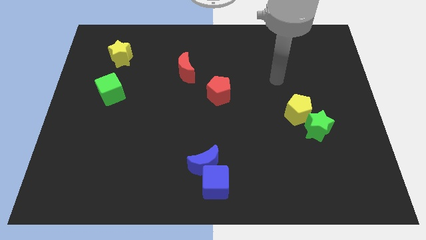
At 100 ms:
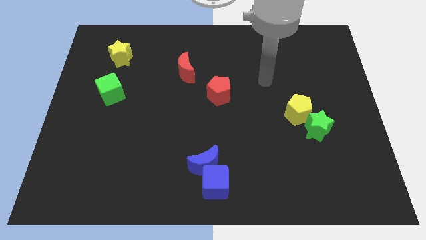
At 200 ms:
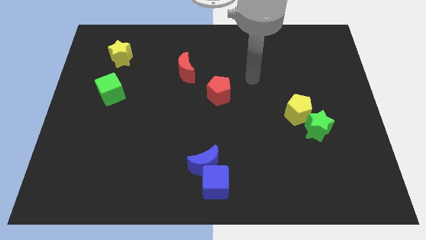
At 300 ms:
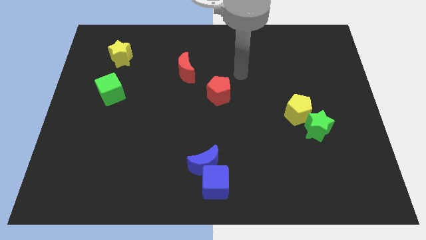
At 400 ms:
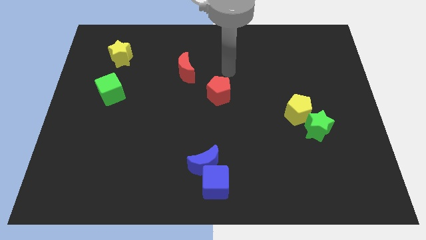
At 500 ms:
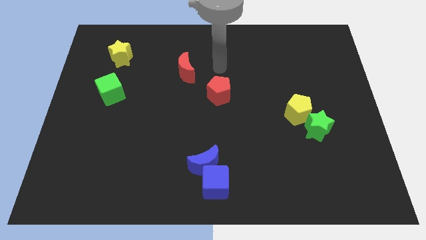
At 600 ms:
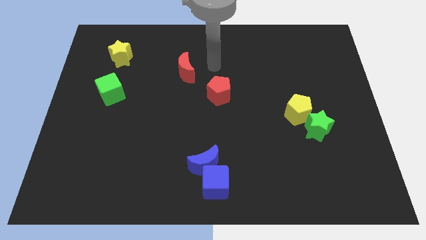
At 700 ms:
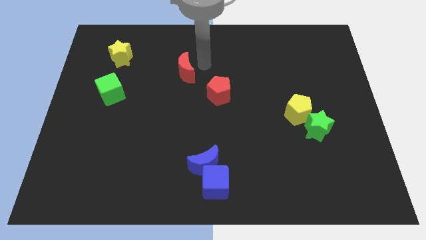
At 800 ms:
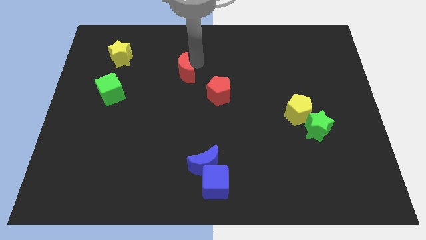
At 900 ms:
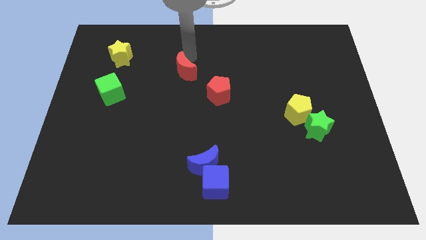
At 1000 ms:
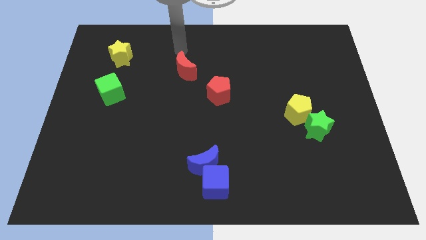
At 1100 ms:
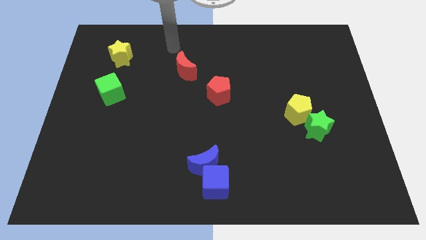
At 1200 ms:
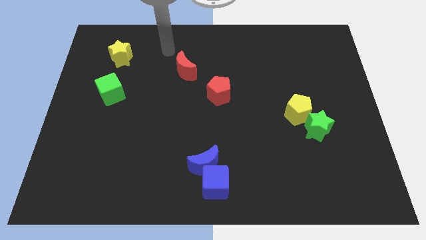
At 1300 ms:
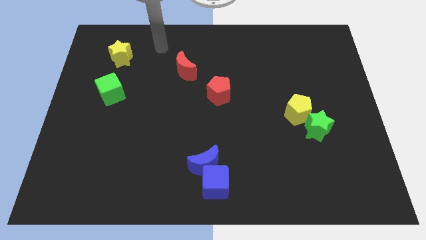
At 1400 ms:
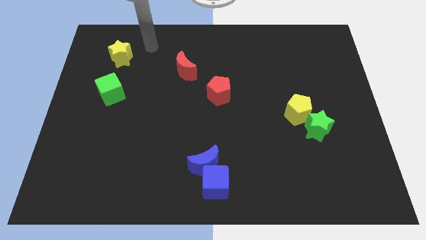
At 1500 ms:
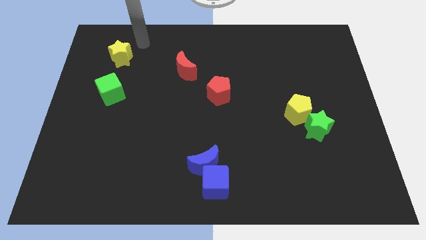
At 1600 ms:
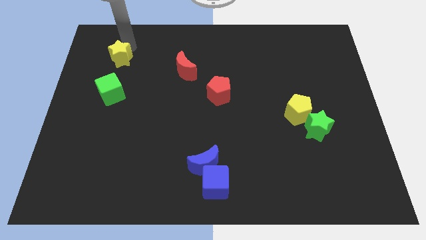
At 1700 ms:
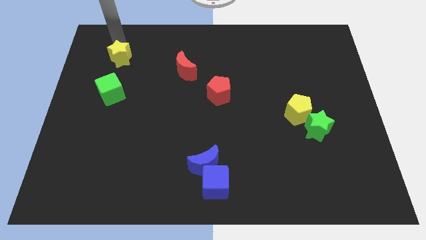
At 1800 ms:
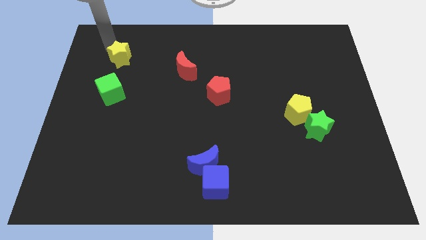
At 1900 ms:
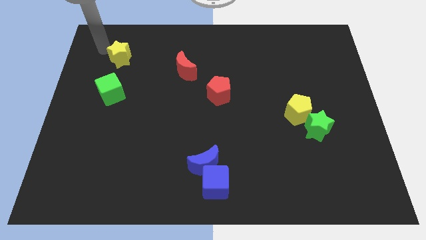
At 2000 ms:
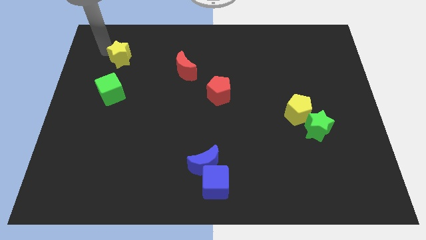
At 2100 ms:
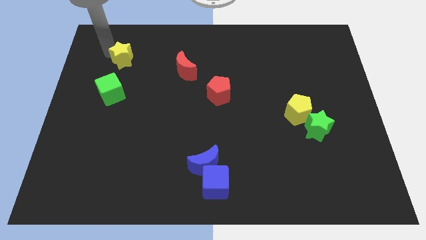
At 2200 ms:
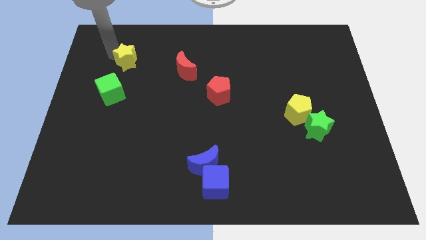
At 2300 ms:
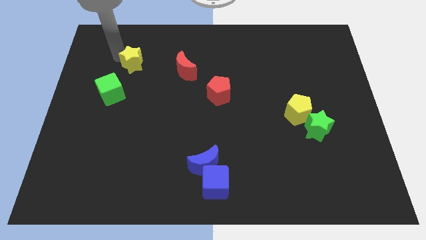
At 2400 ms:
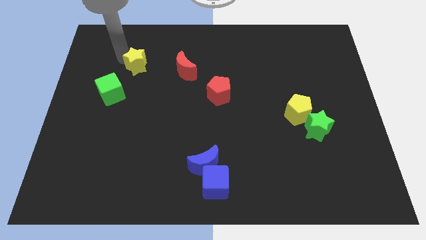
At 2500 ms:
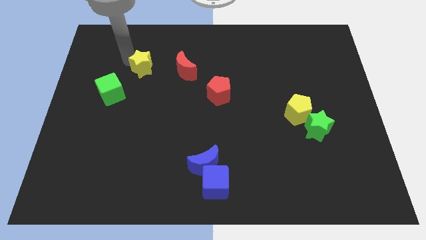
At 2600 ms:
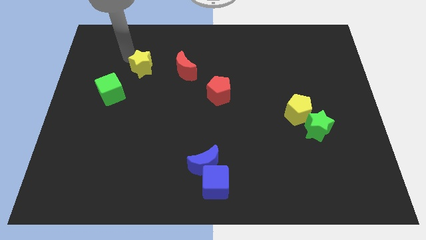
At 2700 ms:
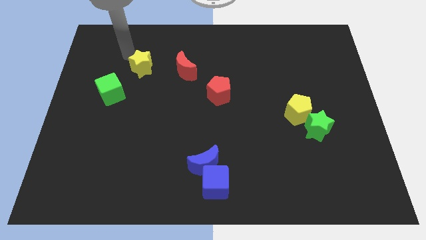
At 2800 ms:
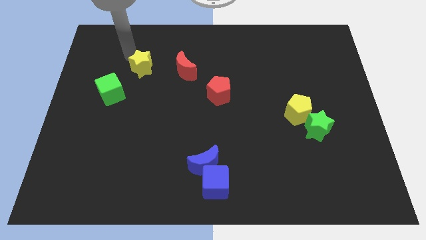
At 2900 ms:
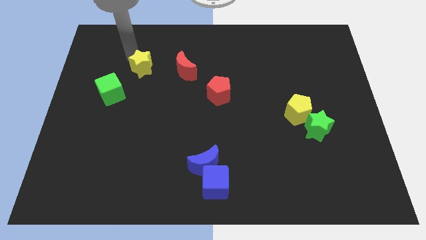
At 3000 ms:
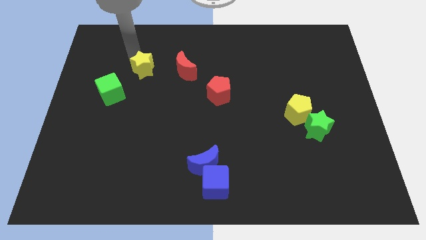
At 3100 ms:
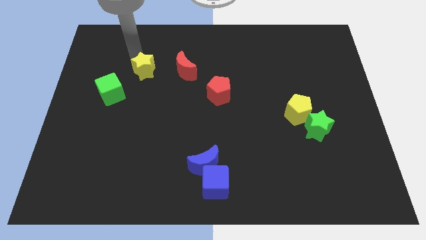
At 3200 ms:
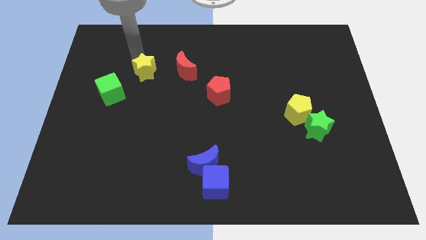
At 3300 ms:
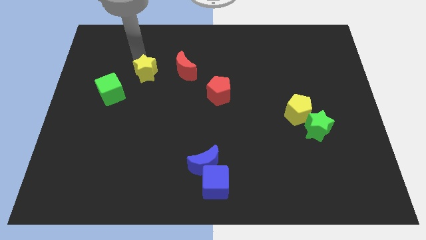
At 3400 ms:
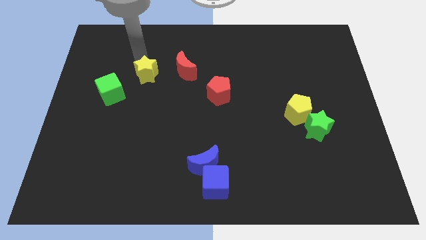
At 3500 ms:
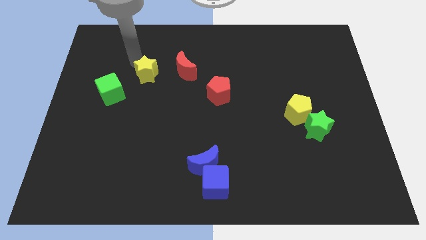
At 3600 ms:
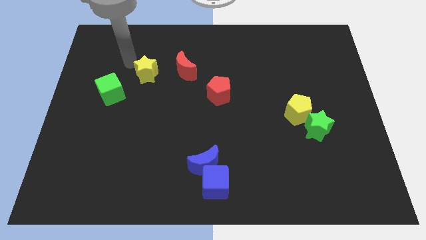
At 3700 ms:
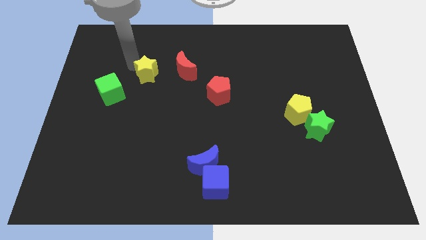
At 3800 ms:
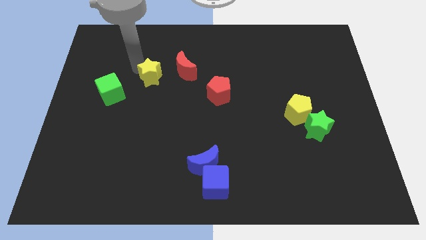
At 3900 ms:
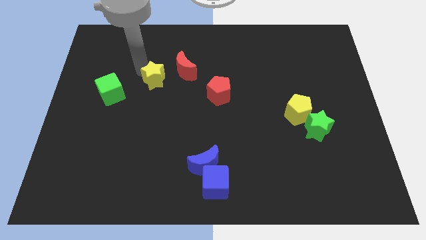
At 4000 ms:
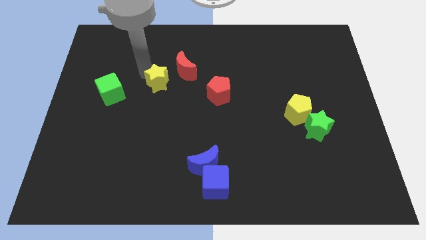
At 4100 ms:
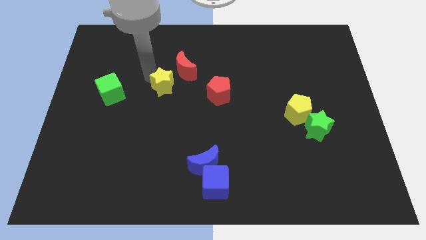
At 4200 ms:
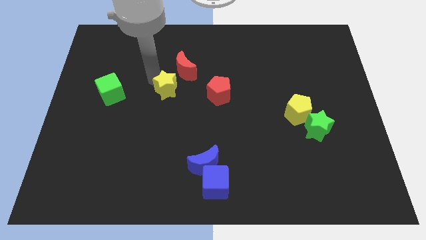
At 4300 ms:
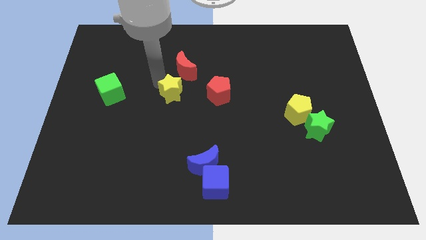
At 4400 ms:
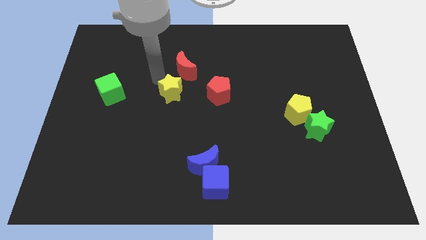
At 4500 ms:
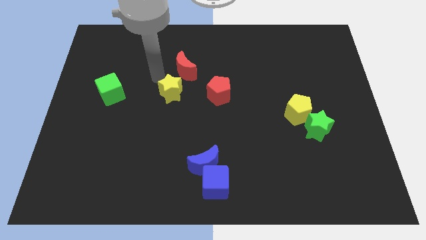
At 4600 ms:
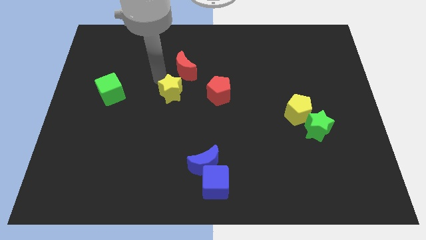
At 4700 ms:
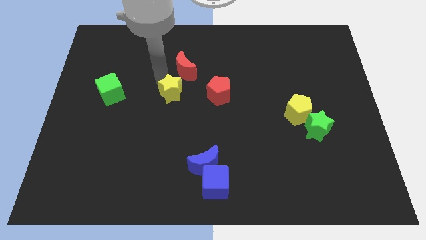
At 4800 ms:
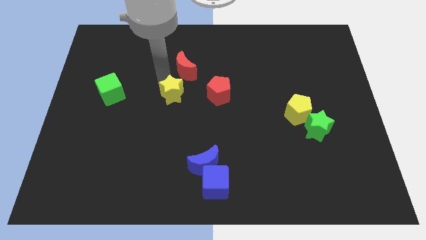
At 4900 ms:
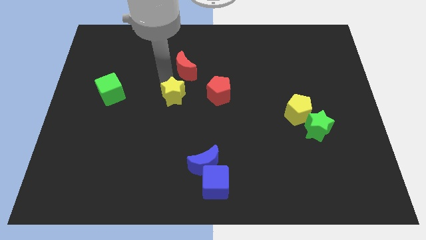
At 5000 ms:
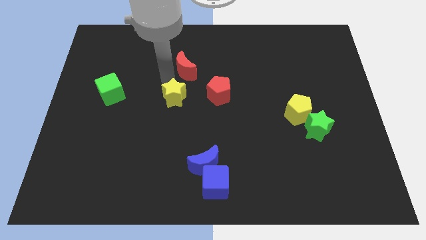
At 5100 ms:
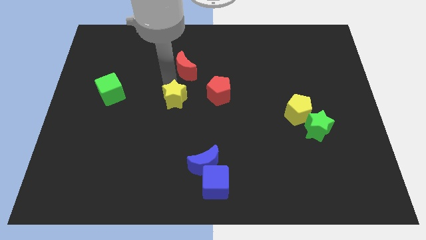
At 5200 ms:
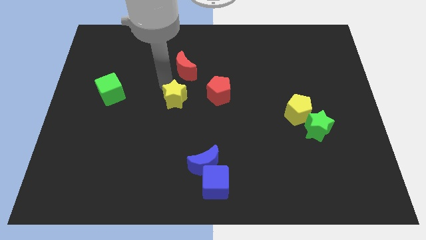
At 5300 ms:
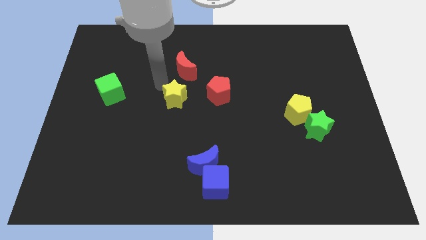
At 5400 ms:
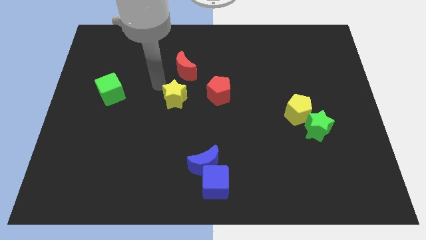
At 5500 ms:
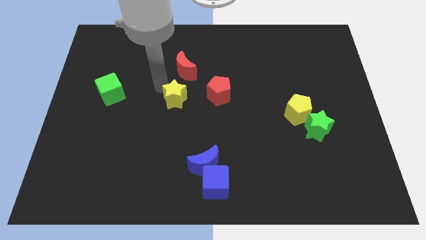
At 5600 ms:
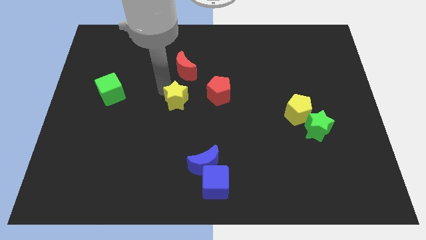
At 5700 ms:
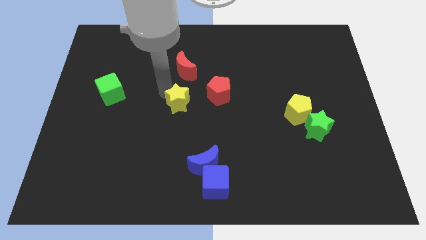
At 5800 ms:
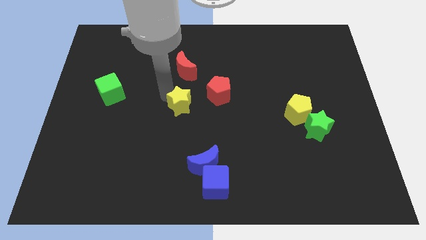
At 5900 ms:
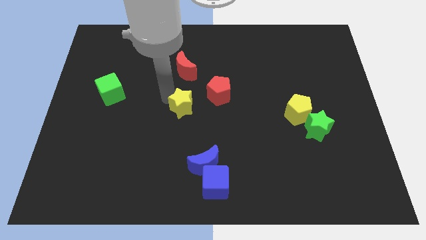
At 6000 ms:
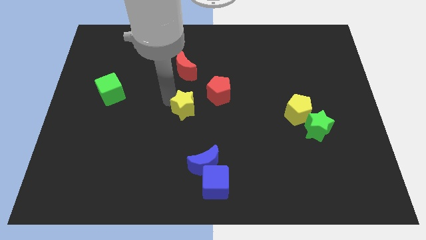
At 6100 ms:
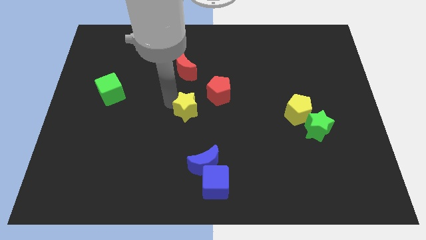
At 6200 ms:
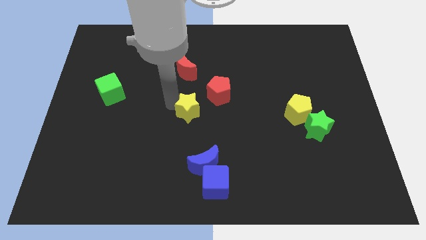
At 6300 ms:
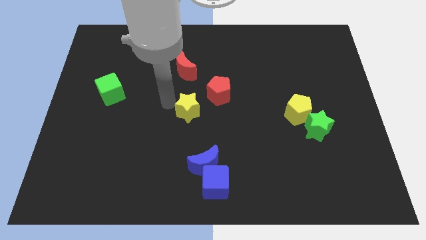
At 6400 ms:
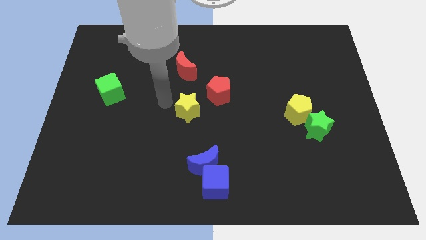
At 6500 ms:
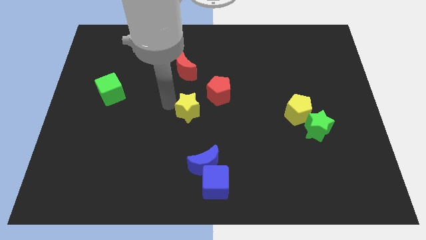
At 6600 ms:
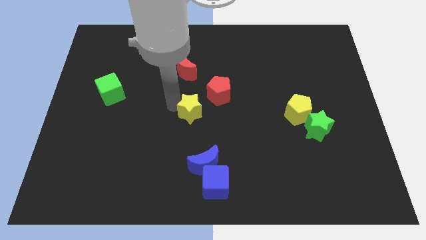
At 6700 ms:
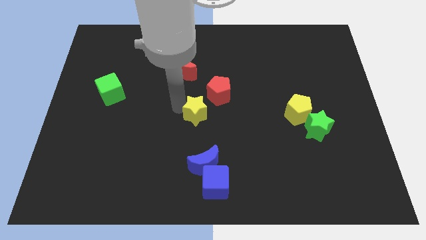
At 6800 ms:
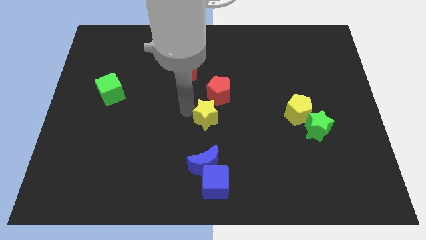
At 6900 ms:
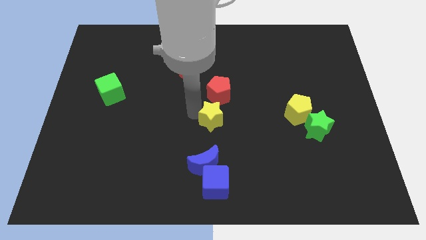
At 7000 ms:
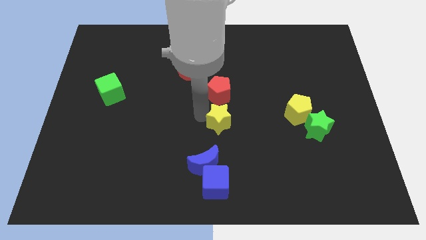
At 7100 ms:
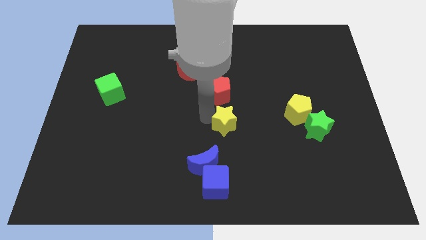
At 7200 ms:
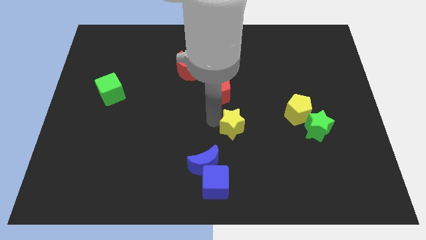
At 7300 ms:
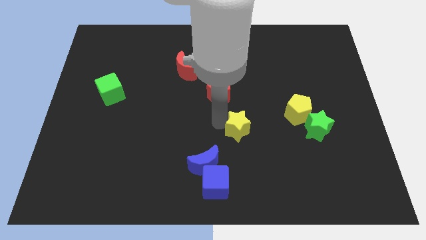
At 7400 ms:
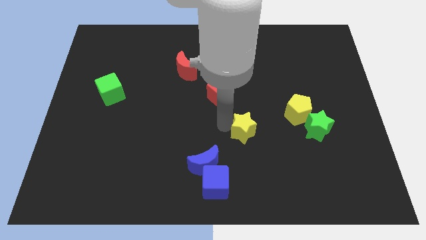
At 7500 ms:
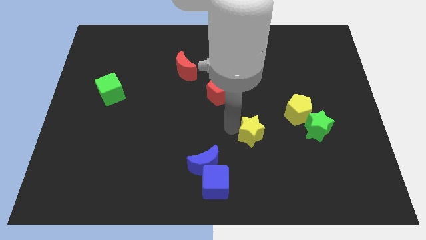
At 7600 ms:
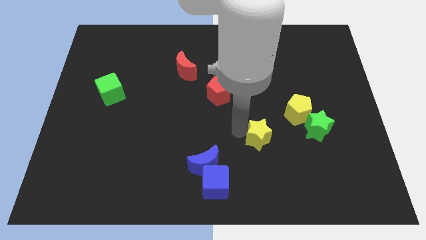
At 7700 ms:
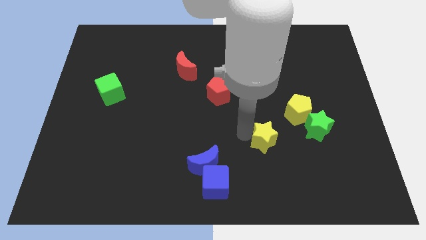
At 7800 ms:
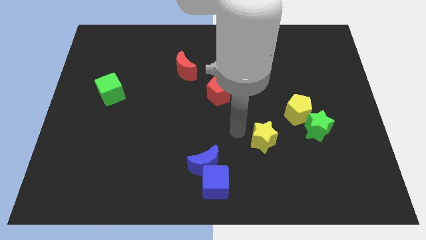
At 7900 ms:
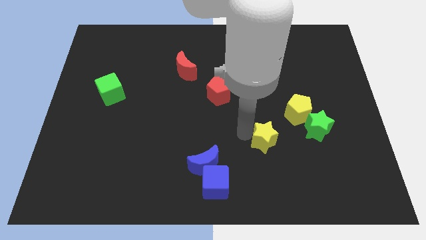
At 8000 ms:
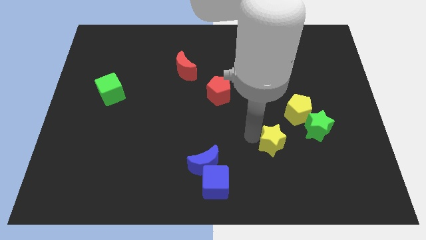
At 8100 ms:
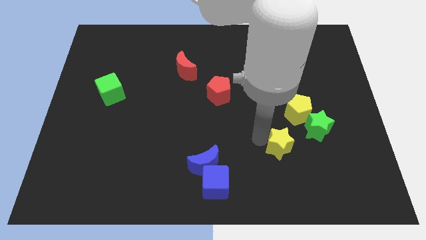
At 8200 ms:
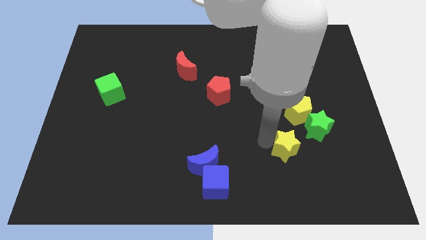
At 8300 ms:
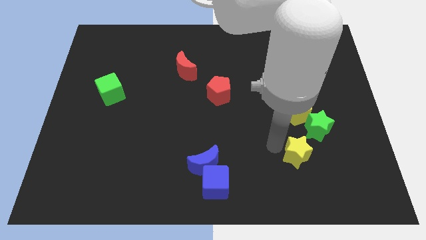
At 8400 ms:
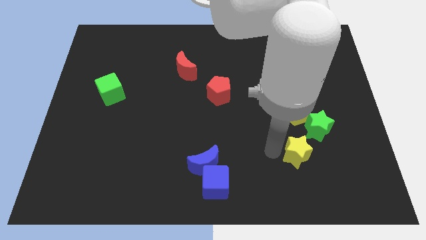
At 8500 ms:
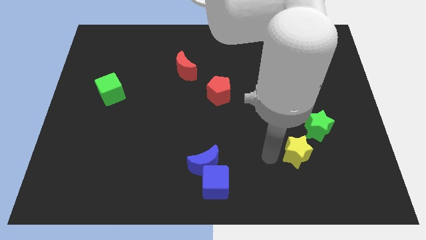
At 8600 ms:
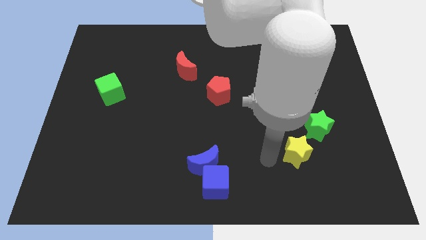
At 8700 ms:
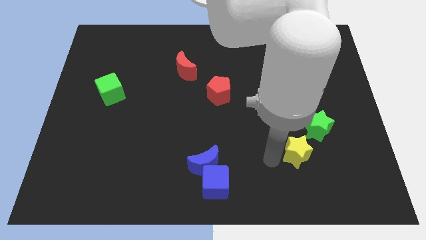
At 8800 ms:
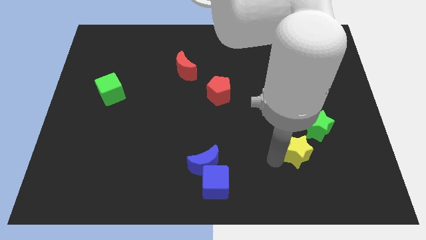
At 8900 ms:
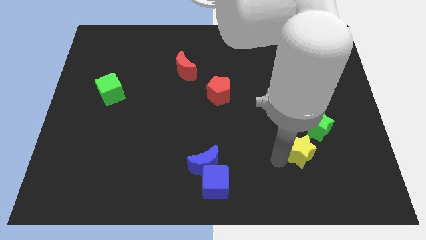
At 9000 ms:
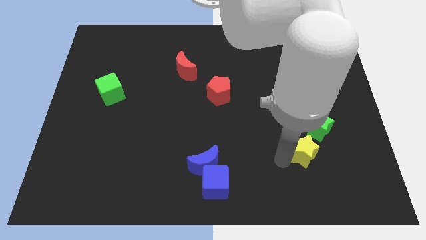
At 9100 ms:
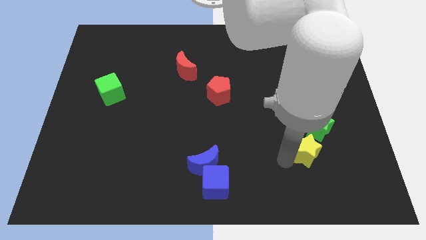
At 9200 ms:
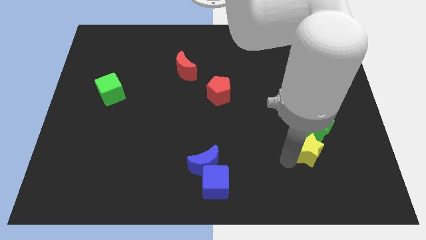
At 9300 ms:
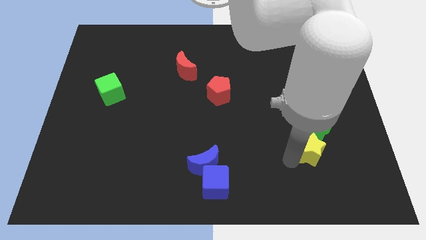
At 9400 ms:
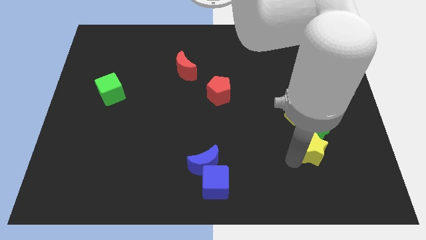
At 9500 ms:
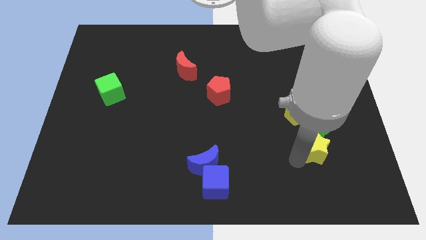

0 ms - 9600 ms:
push the yellow star to the bottom right side of the green star
